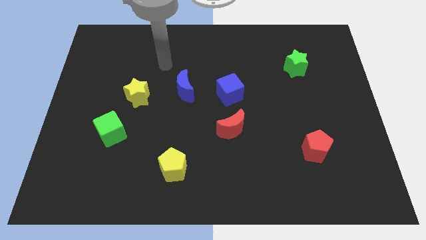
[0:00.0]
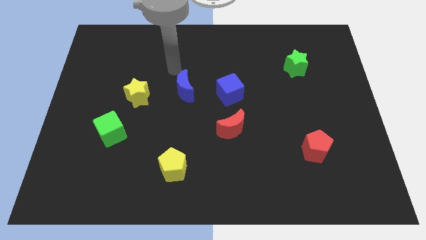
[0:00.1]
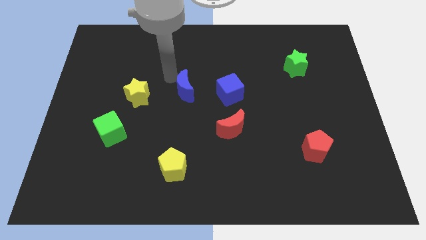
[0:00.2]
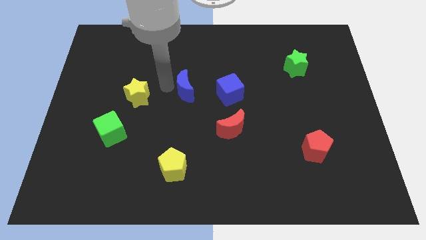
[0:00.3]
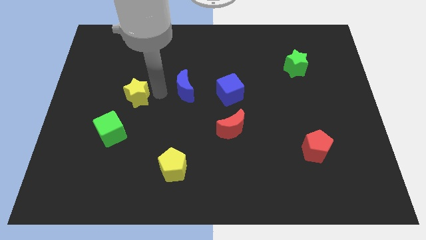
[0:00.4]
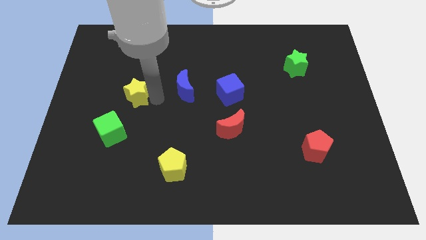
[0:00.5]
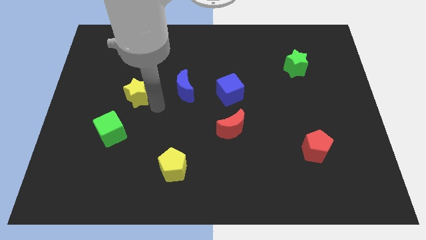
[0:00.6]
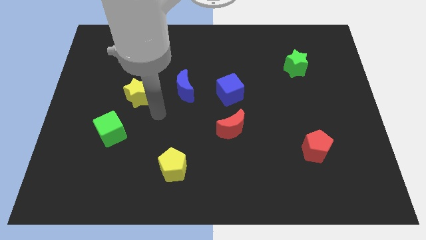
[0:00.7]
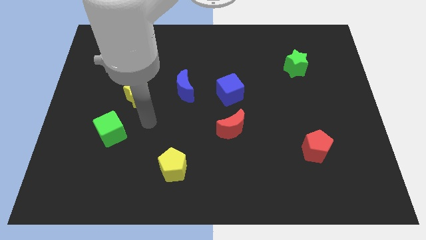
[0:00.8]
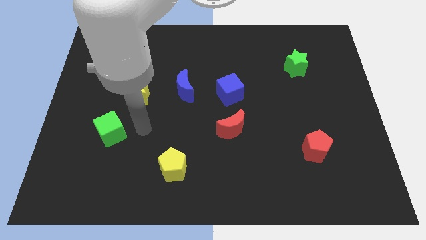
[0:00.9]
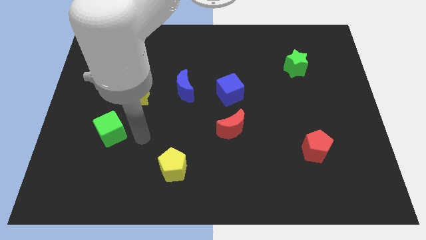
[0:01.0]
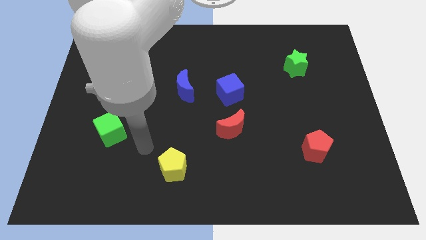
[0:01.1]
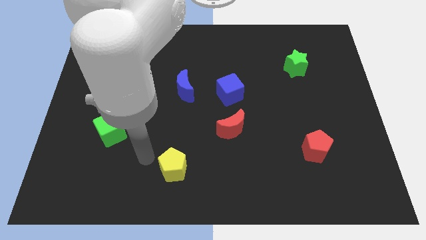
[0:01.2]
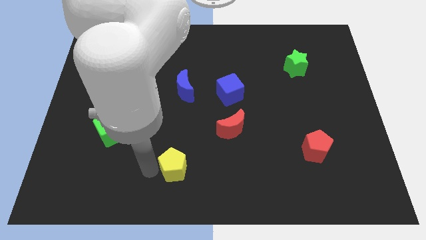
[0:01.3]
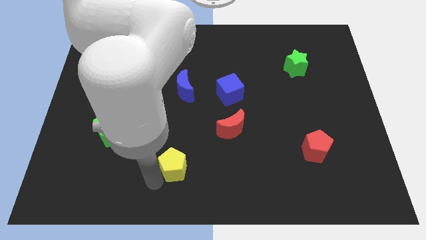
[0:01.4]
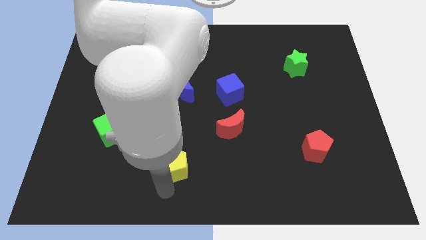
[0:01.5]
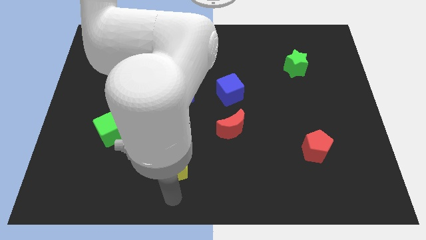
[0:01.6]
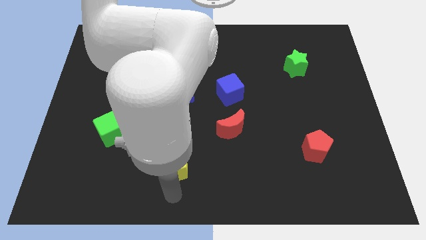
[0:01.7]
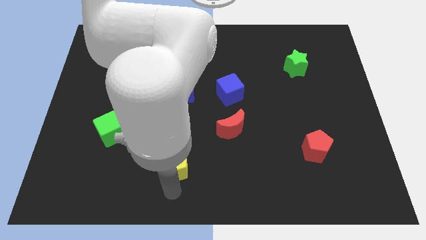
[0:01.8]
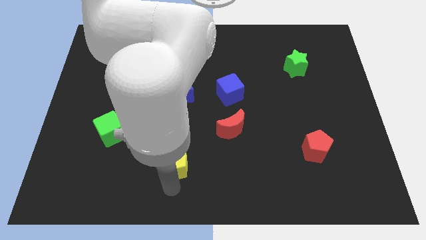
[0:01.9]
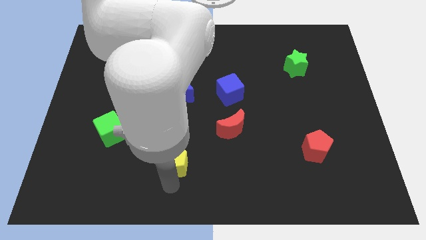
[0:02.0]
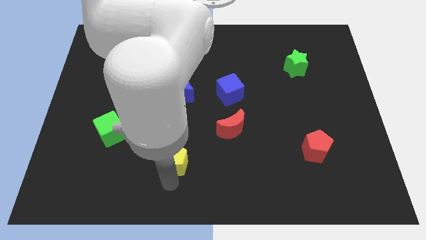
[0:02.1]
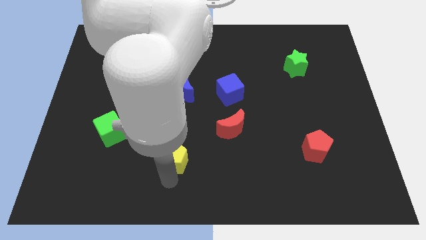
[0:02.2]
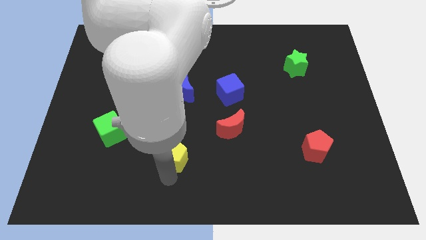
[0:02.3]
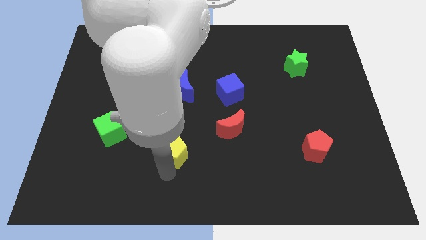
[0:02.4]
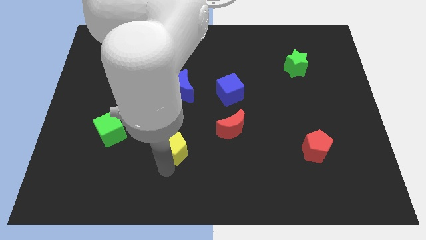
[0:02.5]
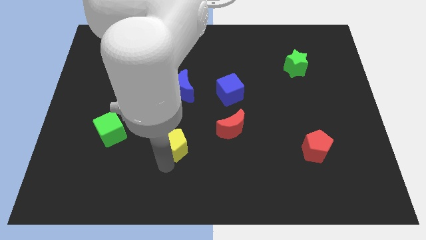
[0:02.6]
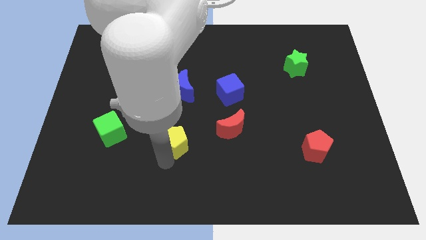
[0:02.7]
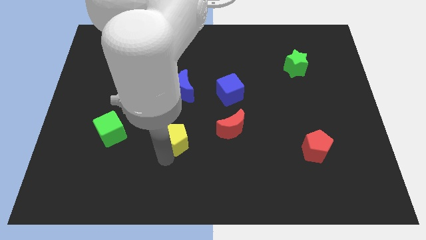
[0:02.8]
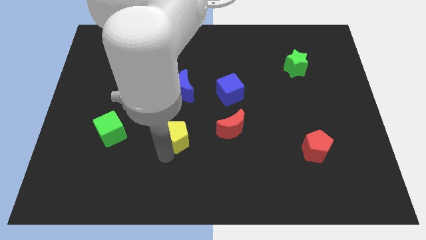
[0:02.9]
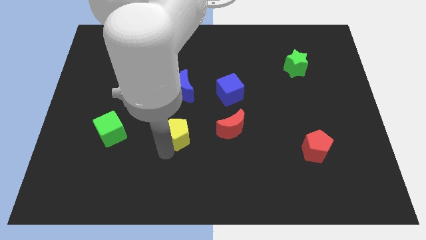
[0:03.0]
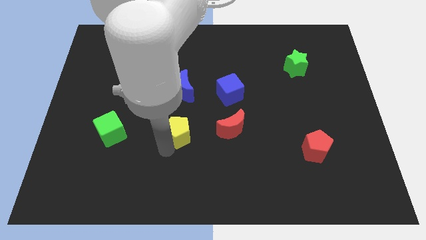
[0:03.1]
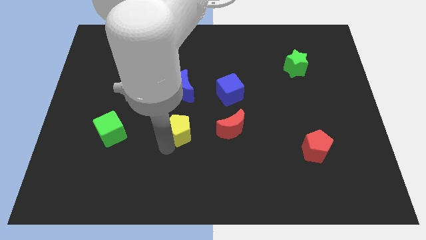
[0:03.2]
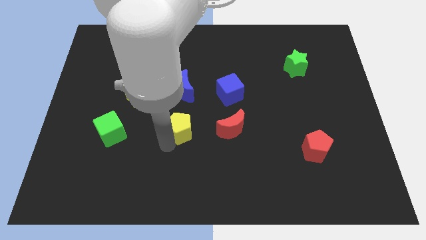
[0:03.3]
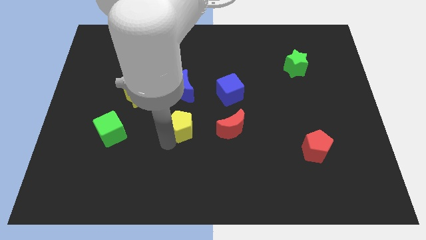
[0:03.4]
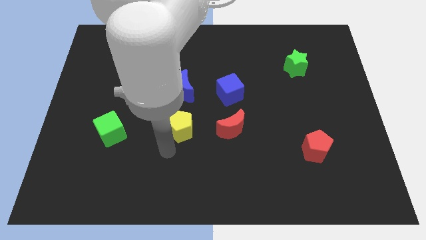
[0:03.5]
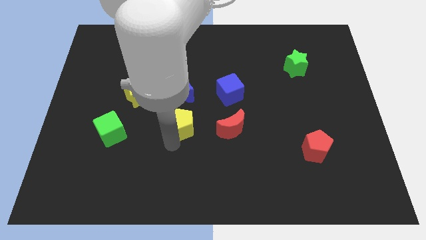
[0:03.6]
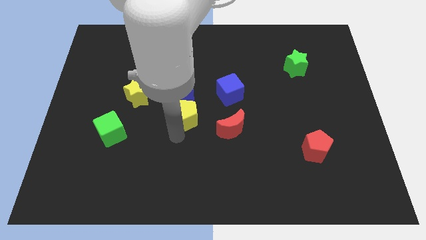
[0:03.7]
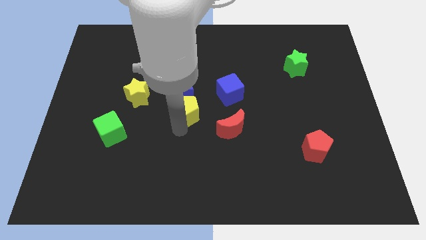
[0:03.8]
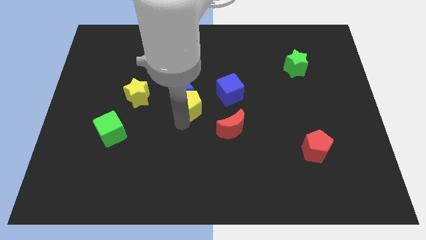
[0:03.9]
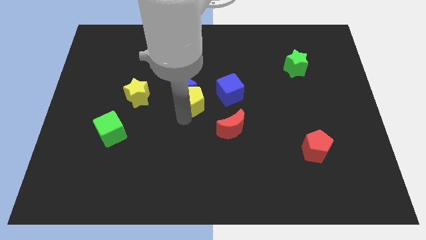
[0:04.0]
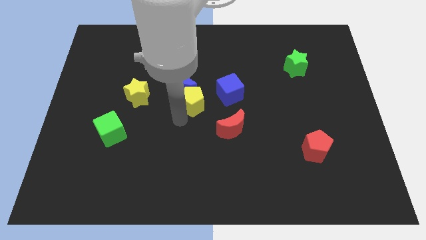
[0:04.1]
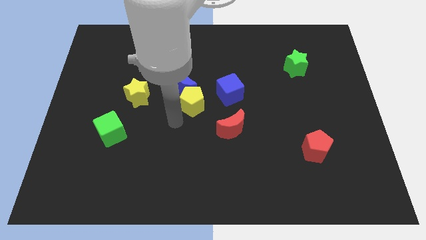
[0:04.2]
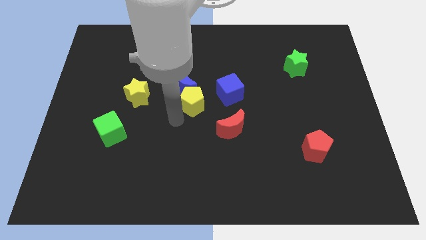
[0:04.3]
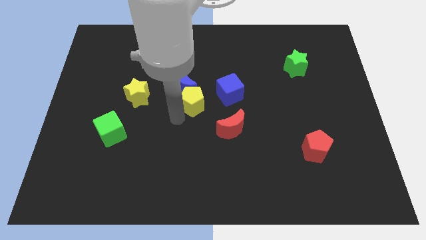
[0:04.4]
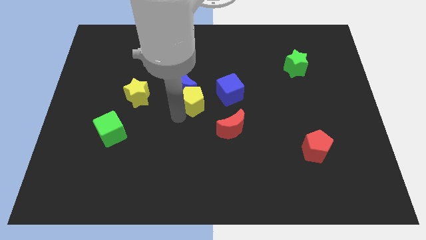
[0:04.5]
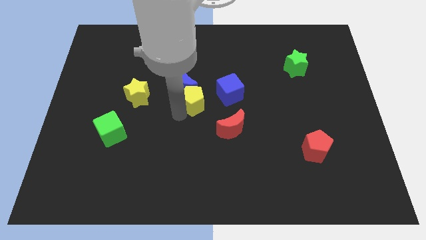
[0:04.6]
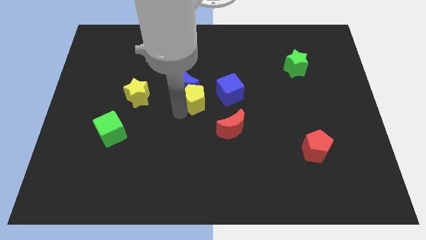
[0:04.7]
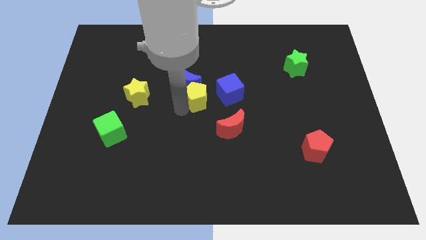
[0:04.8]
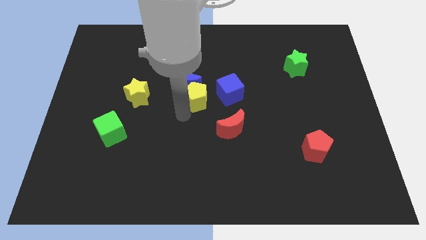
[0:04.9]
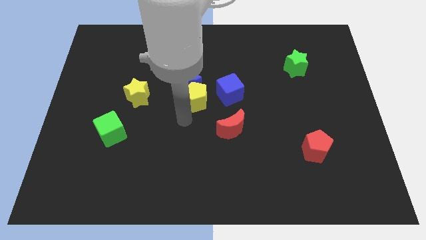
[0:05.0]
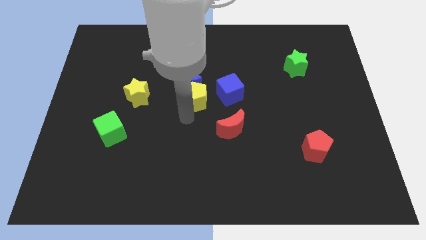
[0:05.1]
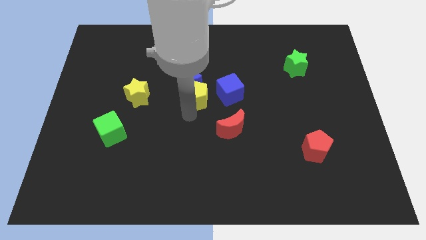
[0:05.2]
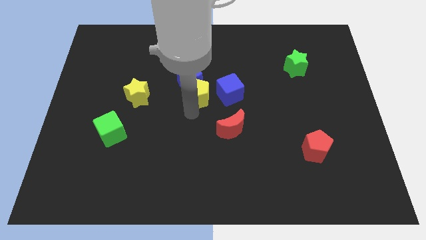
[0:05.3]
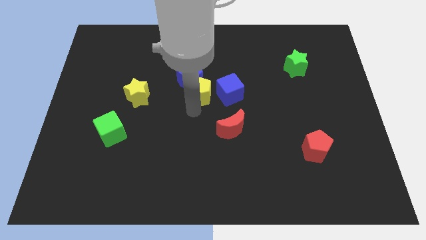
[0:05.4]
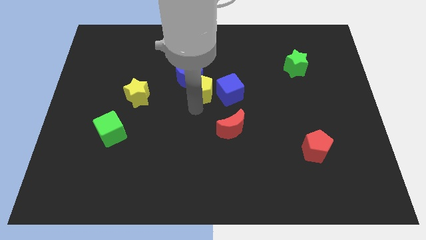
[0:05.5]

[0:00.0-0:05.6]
move the yellow pentagon to the top left side of the blue cube

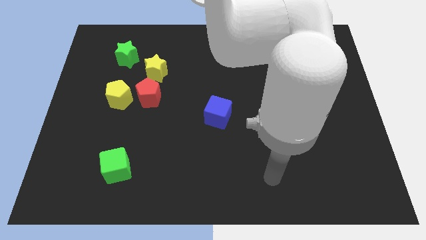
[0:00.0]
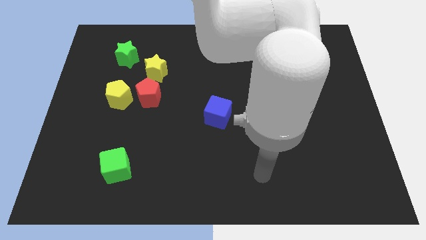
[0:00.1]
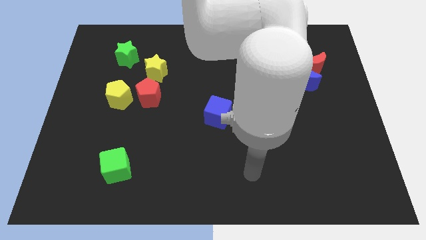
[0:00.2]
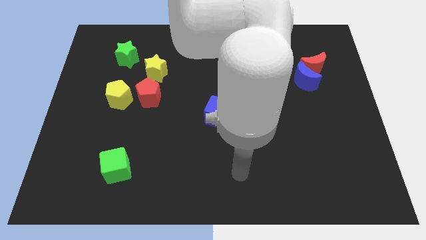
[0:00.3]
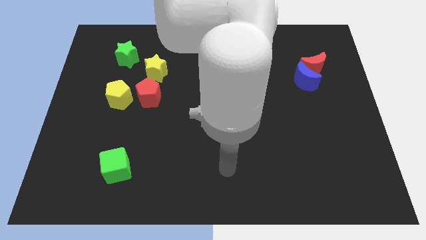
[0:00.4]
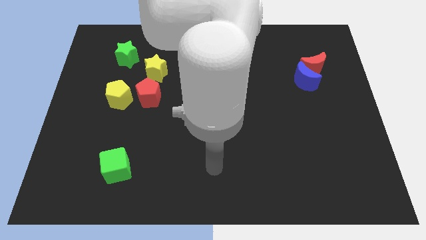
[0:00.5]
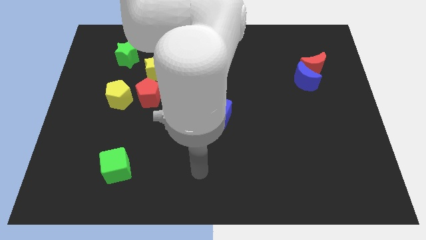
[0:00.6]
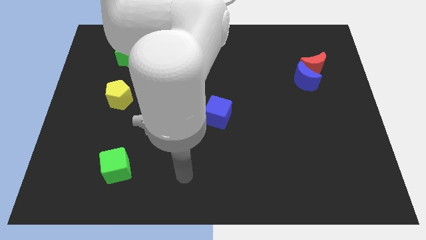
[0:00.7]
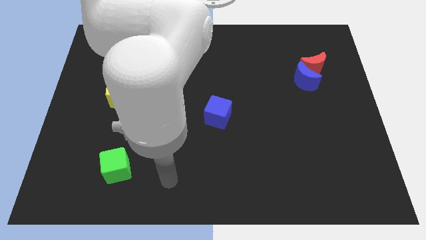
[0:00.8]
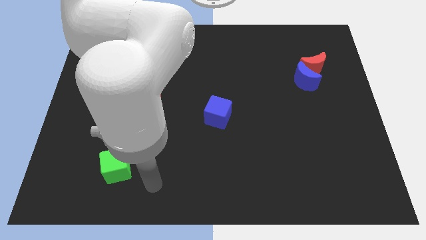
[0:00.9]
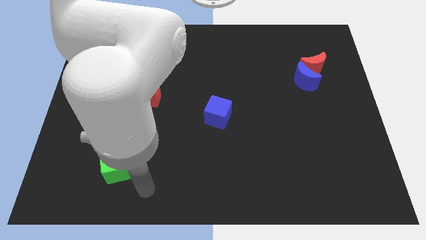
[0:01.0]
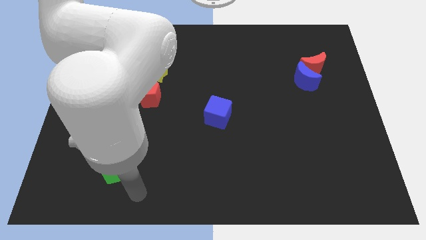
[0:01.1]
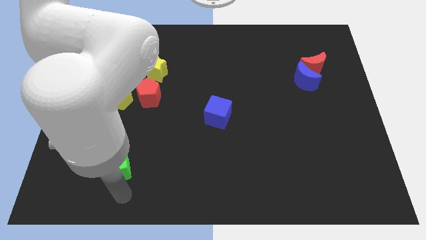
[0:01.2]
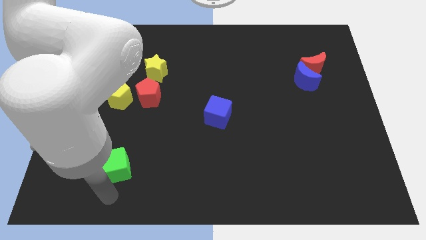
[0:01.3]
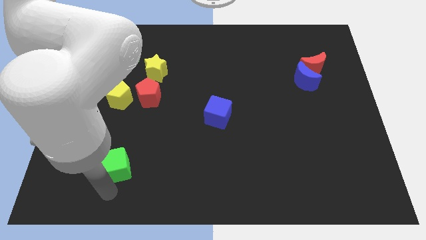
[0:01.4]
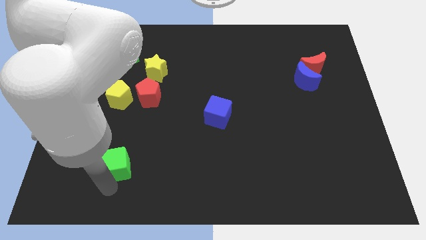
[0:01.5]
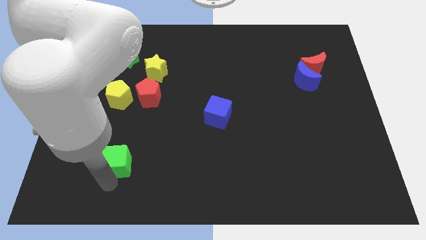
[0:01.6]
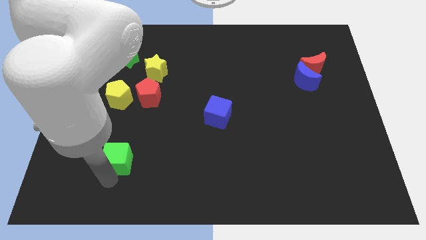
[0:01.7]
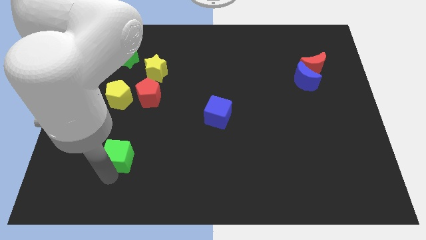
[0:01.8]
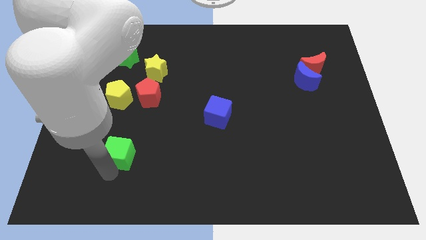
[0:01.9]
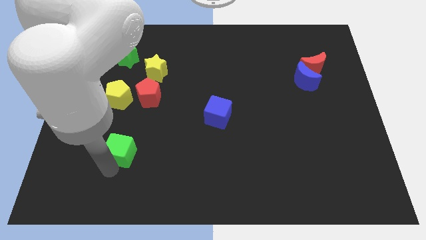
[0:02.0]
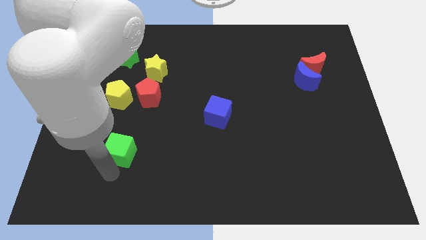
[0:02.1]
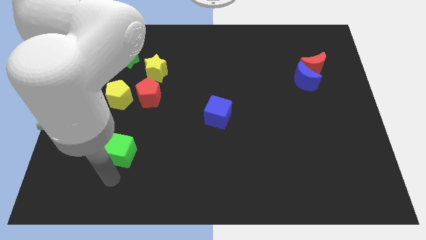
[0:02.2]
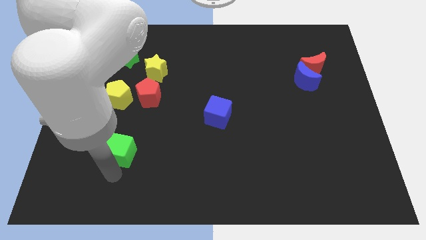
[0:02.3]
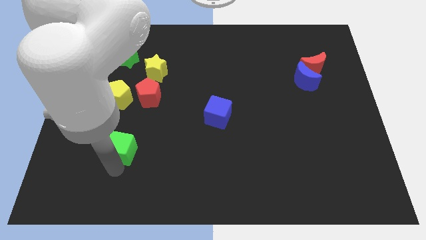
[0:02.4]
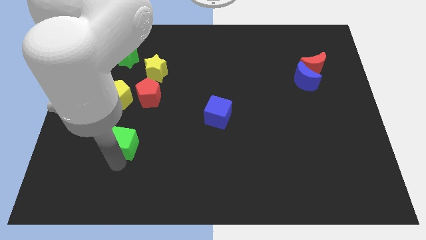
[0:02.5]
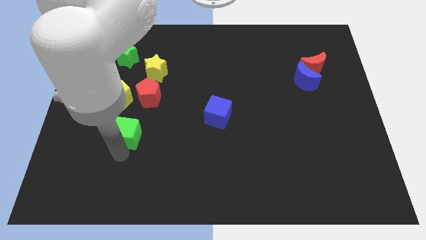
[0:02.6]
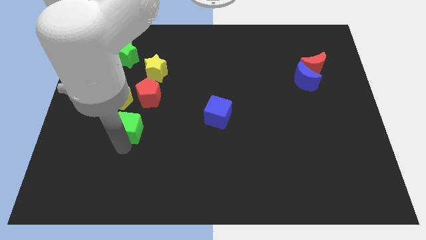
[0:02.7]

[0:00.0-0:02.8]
move the green cube to the bottom right of the yellow pentagon
